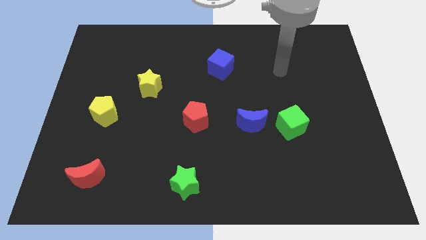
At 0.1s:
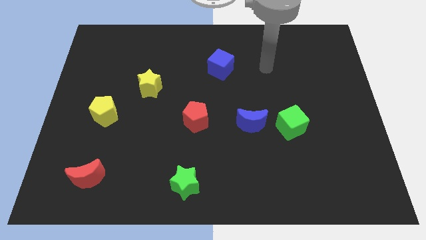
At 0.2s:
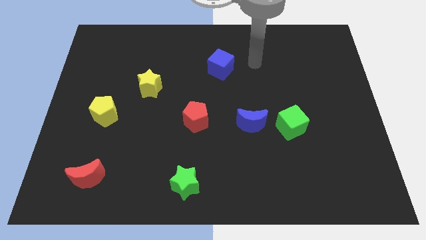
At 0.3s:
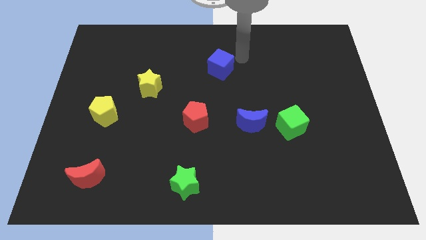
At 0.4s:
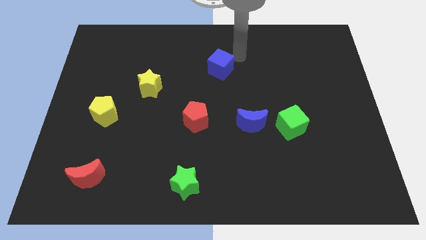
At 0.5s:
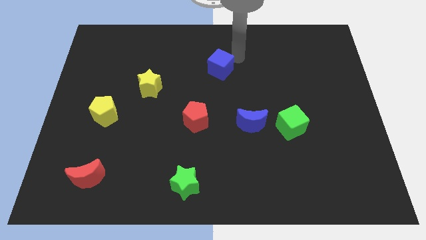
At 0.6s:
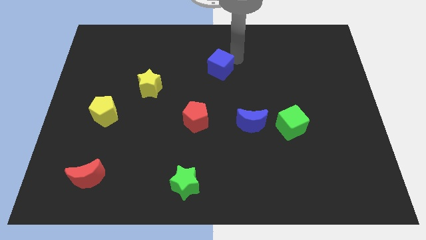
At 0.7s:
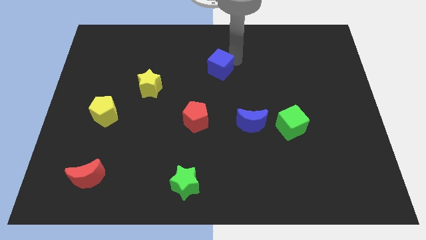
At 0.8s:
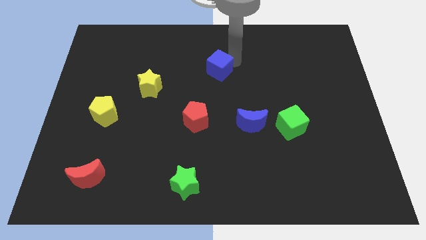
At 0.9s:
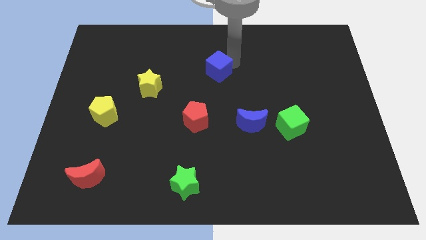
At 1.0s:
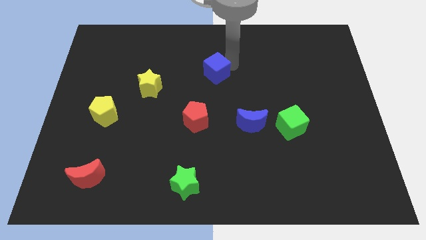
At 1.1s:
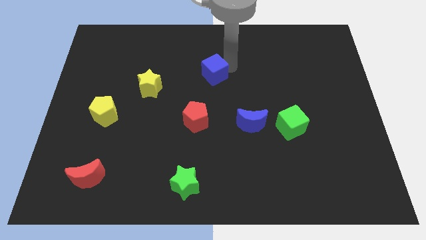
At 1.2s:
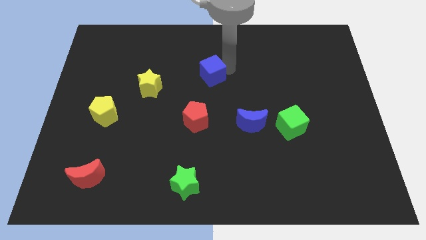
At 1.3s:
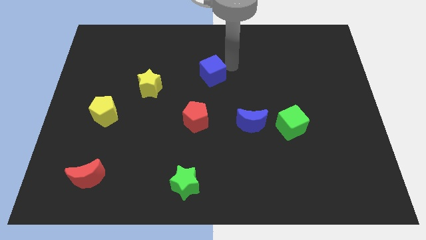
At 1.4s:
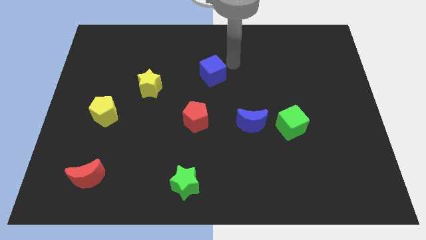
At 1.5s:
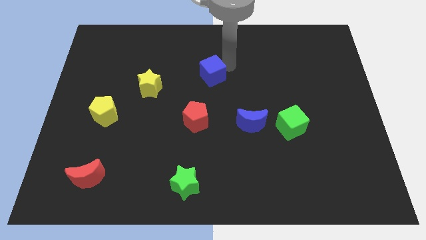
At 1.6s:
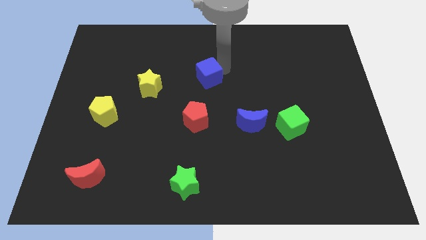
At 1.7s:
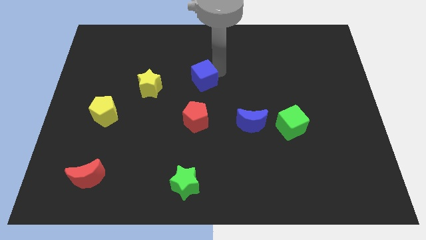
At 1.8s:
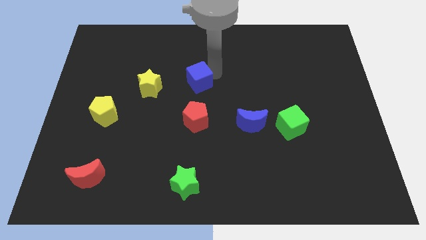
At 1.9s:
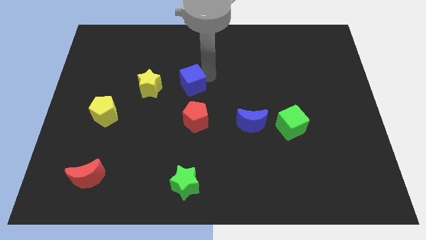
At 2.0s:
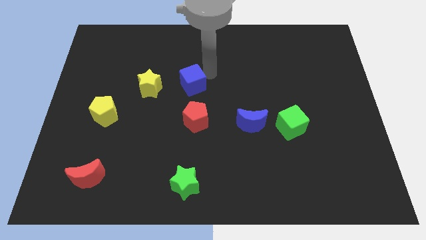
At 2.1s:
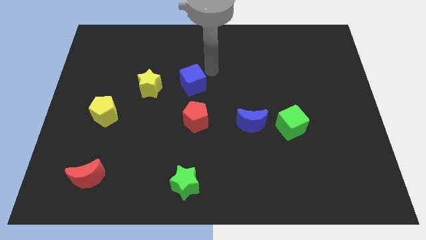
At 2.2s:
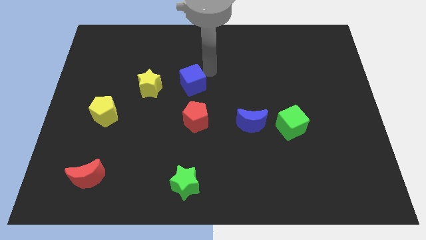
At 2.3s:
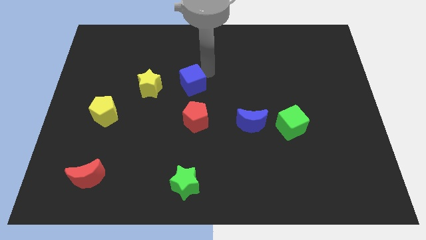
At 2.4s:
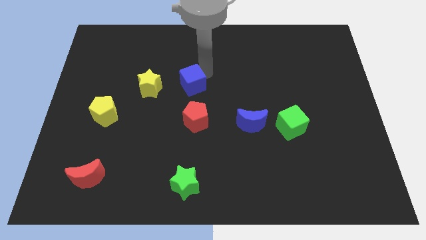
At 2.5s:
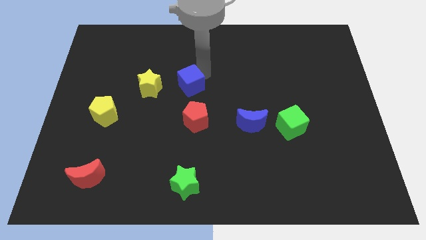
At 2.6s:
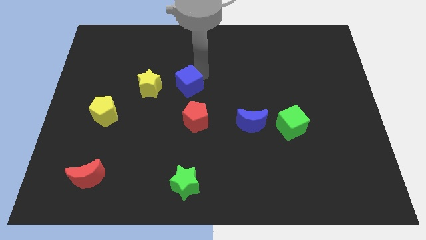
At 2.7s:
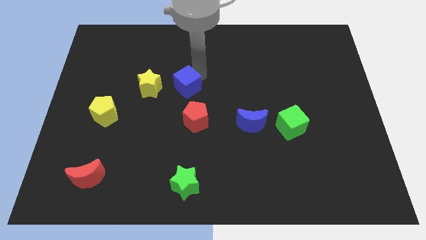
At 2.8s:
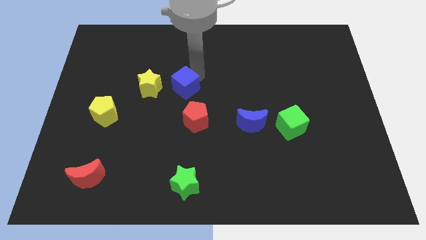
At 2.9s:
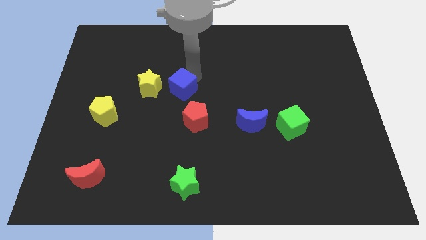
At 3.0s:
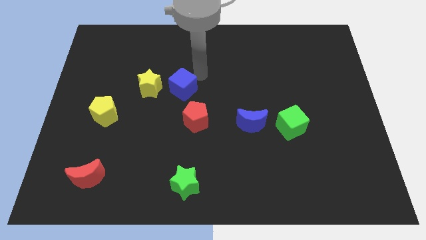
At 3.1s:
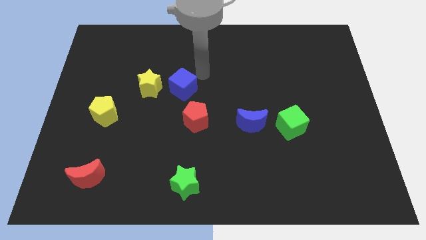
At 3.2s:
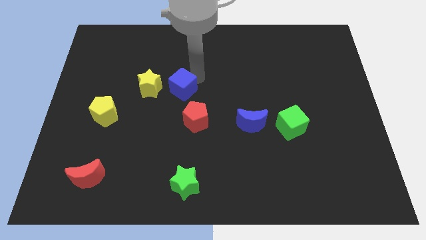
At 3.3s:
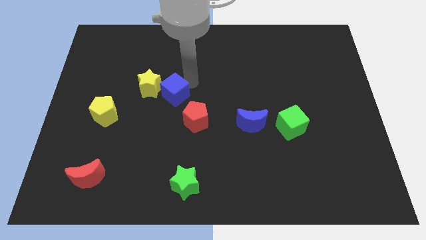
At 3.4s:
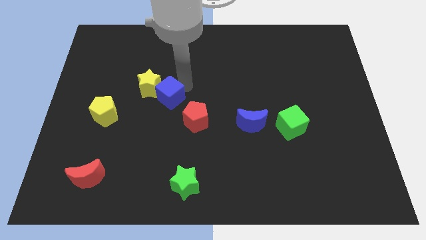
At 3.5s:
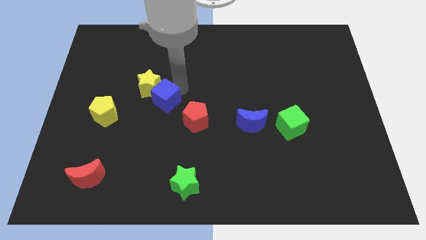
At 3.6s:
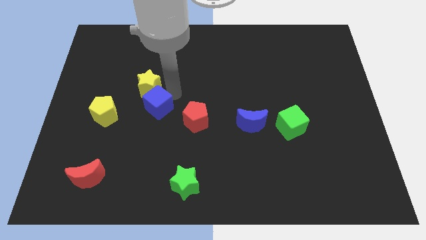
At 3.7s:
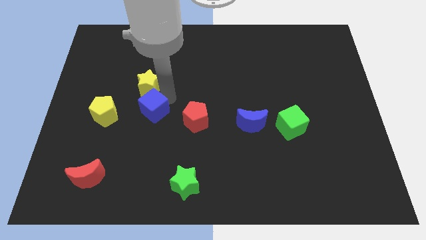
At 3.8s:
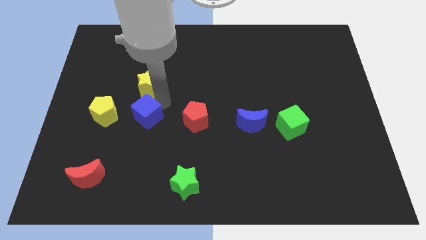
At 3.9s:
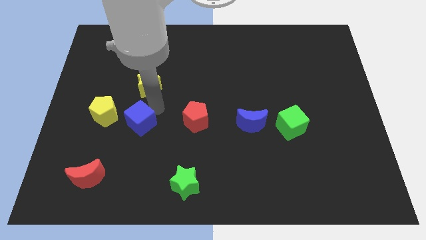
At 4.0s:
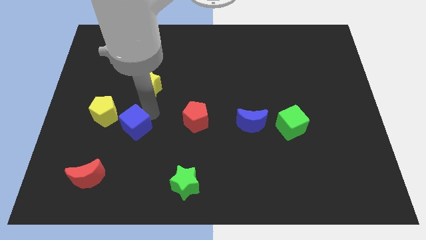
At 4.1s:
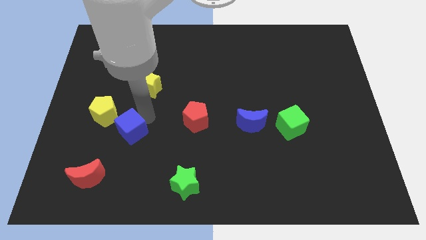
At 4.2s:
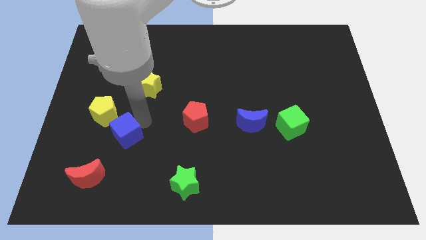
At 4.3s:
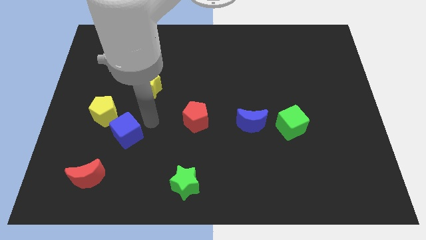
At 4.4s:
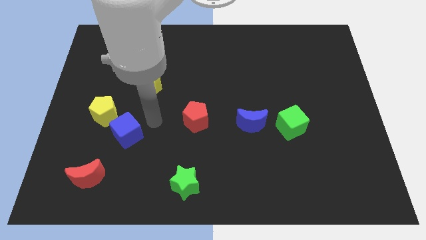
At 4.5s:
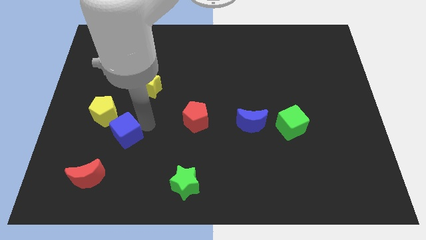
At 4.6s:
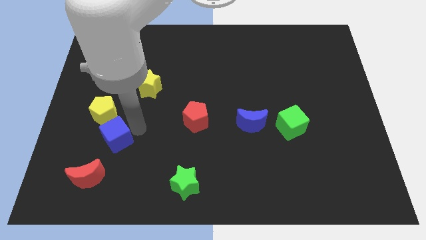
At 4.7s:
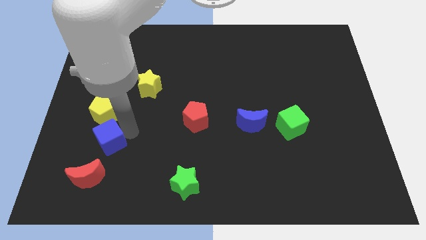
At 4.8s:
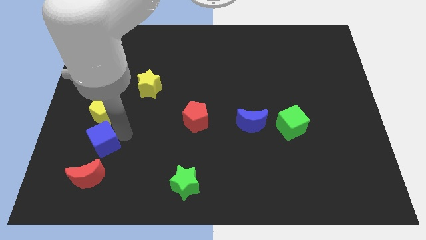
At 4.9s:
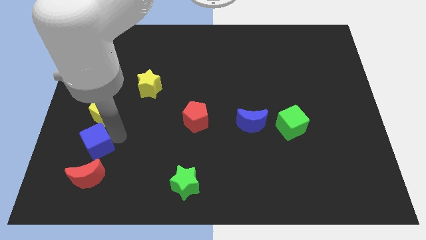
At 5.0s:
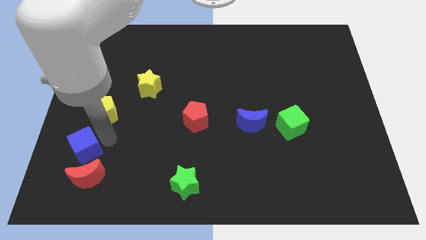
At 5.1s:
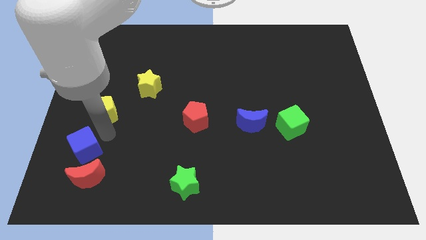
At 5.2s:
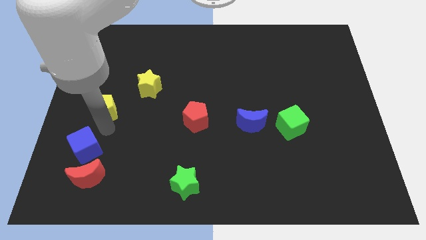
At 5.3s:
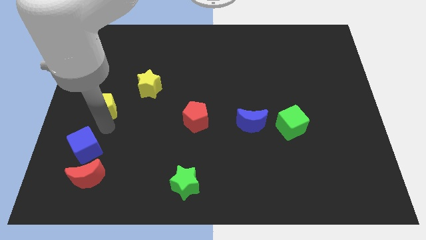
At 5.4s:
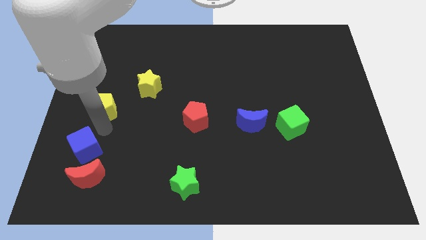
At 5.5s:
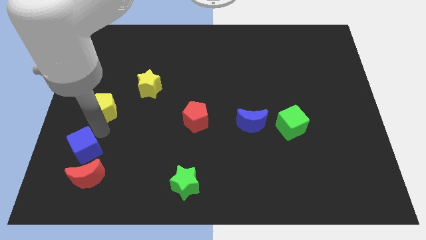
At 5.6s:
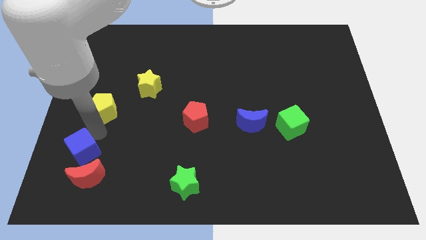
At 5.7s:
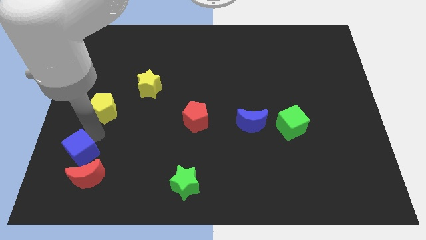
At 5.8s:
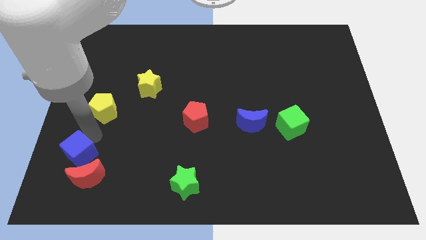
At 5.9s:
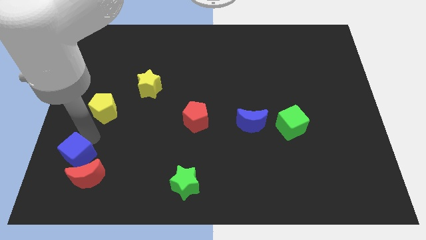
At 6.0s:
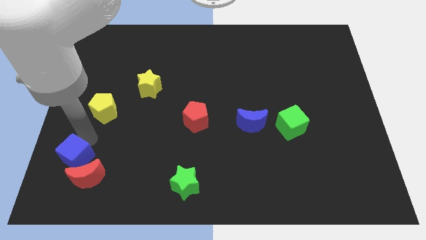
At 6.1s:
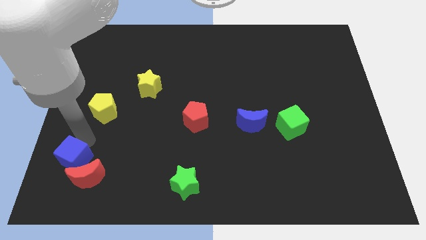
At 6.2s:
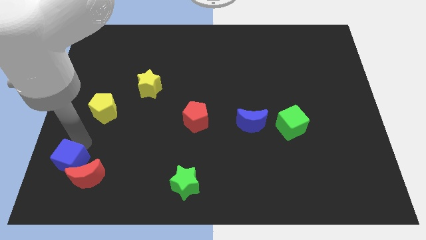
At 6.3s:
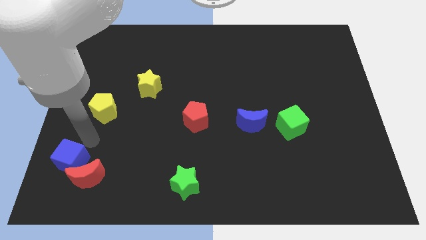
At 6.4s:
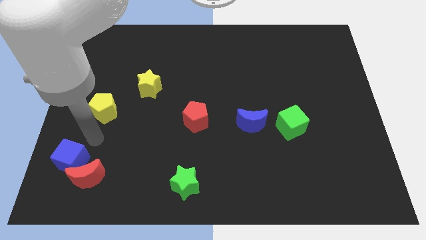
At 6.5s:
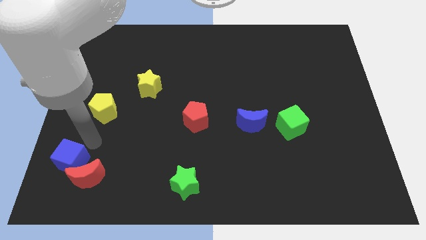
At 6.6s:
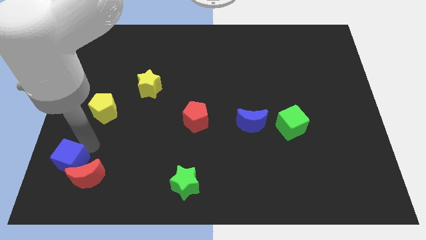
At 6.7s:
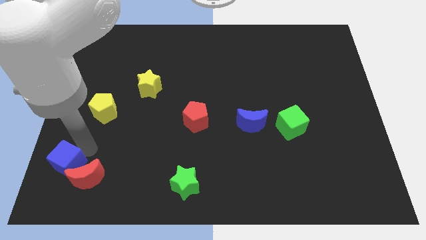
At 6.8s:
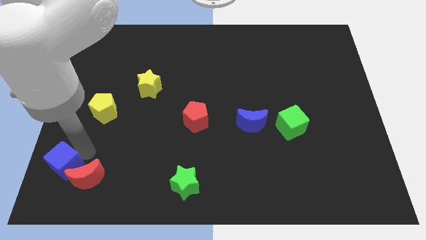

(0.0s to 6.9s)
move the blue cube to the bottom left
